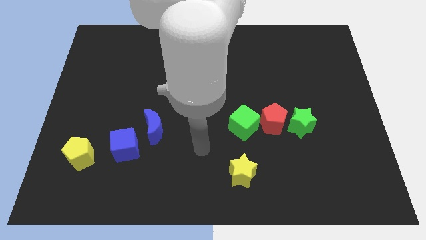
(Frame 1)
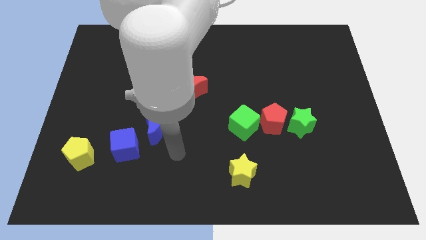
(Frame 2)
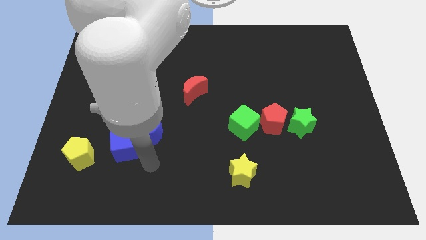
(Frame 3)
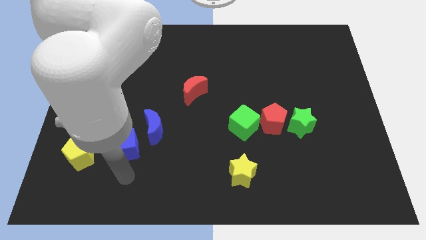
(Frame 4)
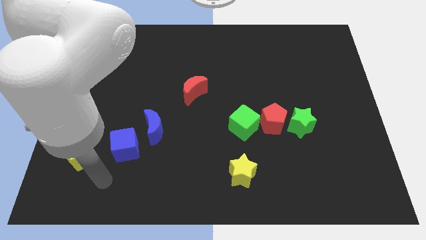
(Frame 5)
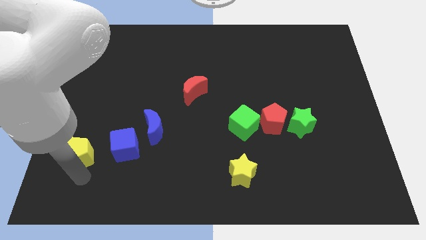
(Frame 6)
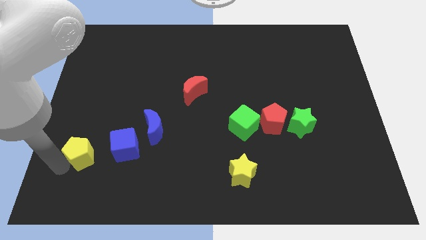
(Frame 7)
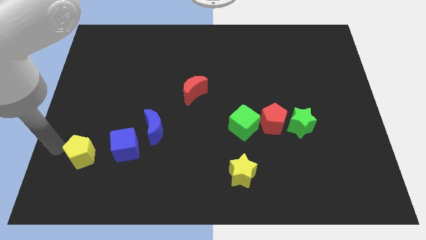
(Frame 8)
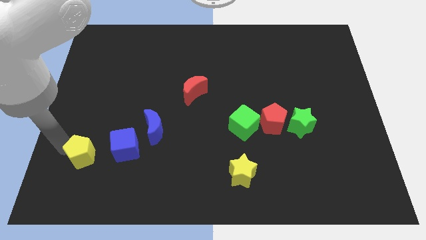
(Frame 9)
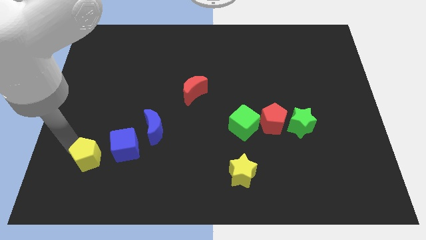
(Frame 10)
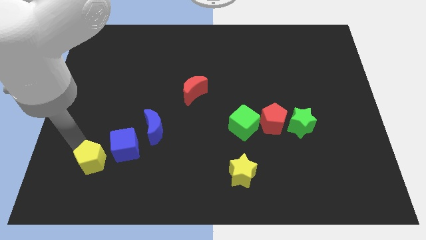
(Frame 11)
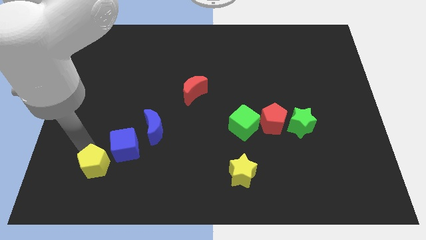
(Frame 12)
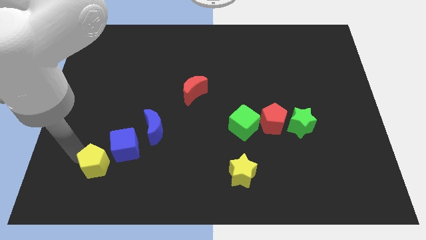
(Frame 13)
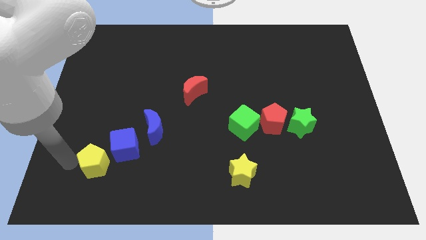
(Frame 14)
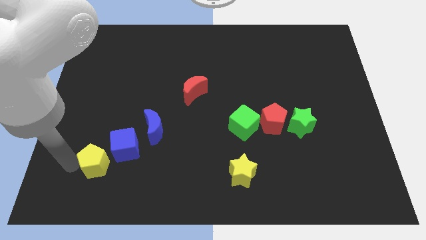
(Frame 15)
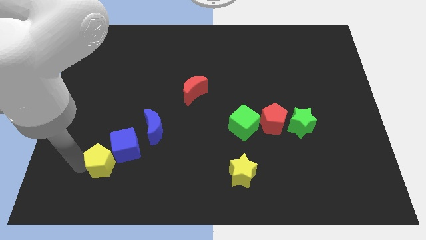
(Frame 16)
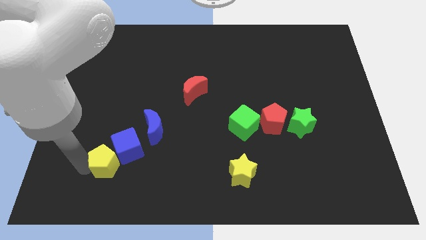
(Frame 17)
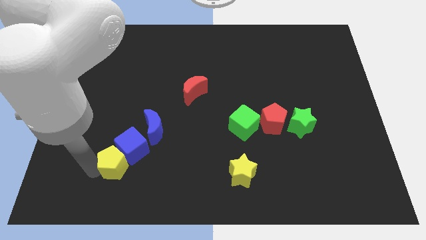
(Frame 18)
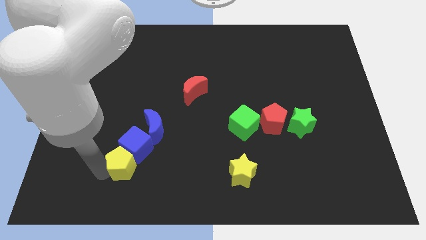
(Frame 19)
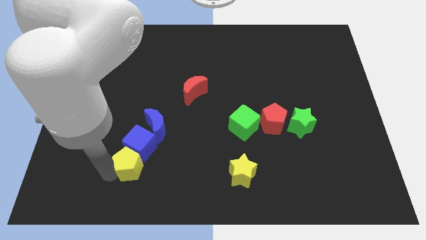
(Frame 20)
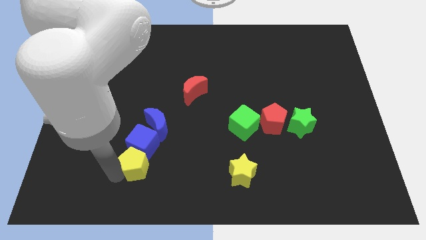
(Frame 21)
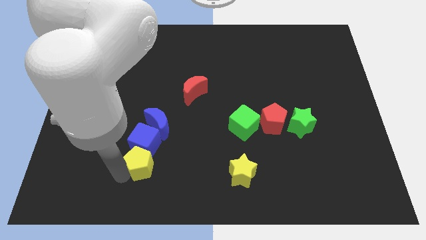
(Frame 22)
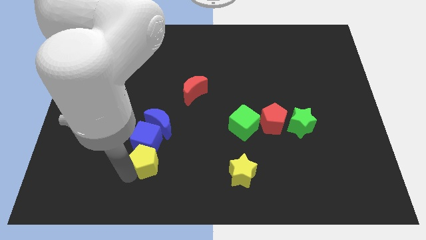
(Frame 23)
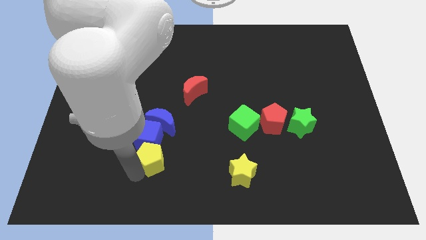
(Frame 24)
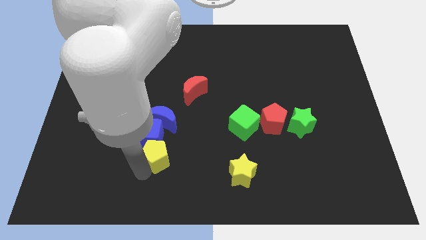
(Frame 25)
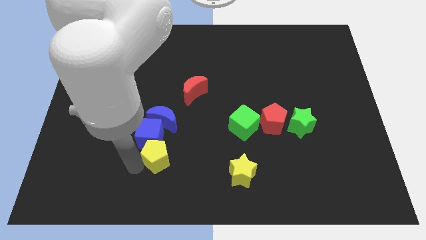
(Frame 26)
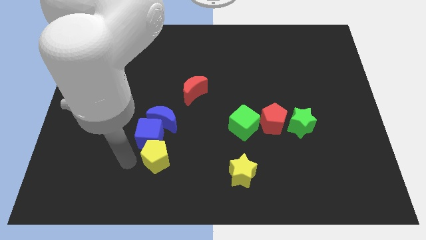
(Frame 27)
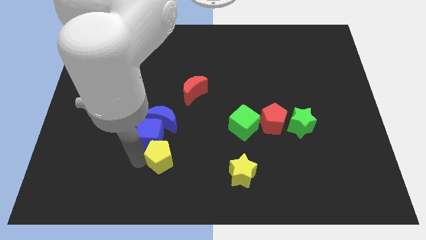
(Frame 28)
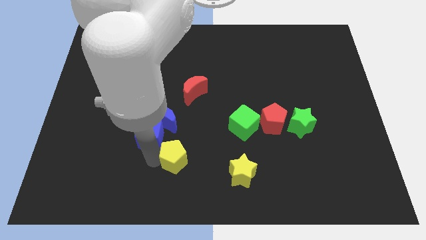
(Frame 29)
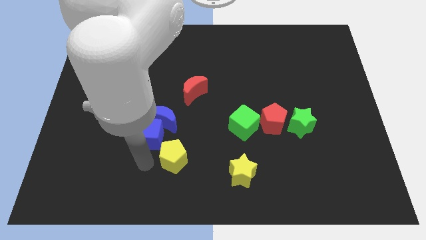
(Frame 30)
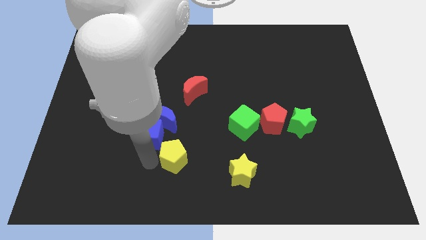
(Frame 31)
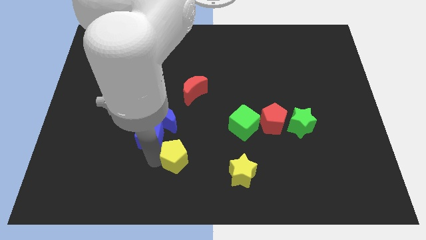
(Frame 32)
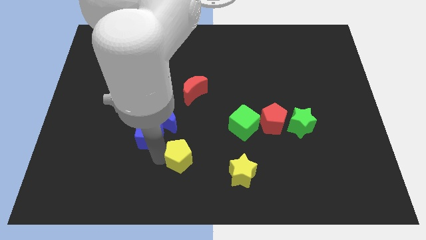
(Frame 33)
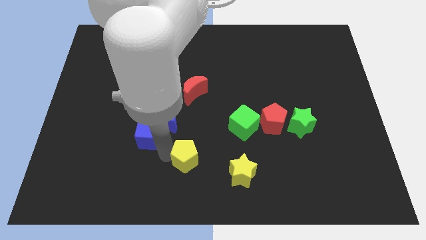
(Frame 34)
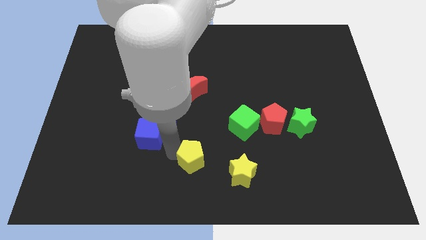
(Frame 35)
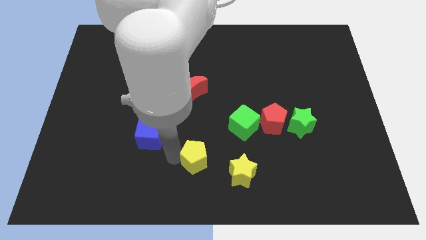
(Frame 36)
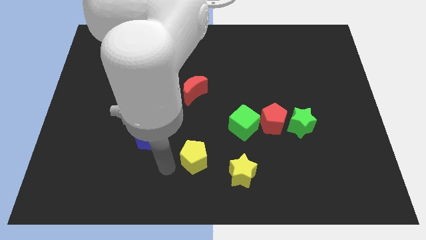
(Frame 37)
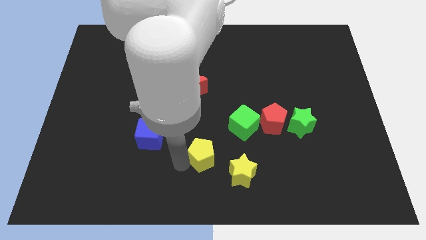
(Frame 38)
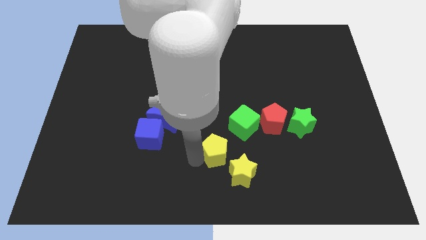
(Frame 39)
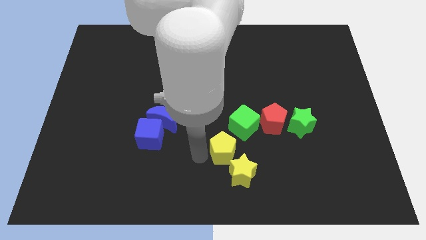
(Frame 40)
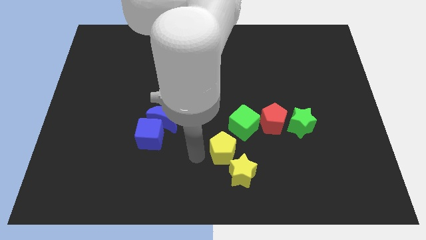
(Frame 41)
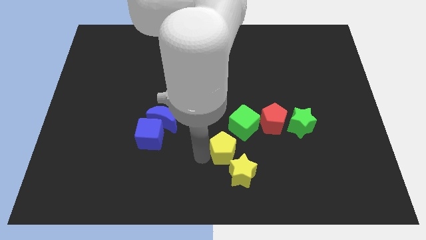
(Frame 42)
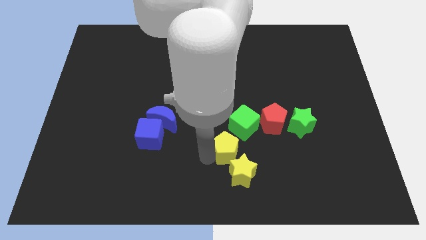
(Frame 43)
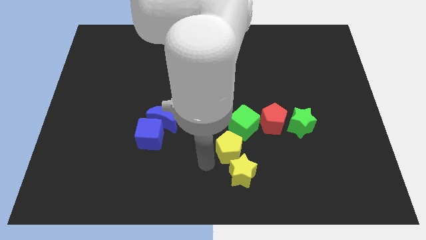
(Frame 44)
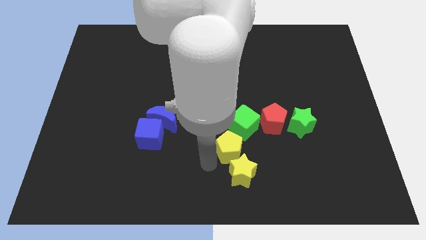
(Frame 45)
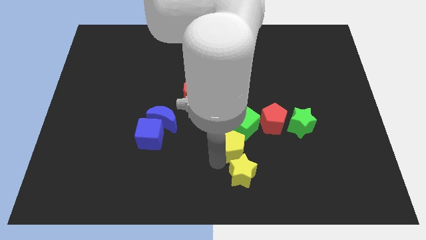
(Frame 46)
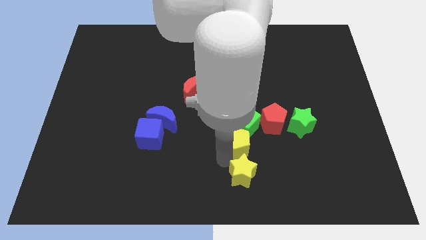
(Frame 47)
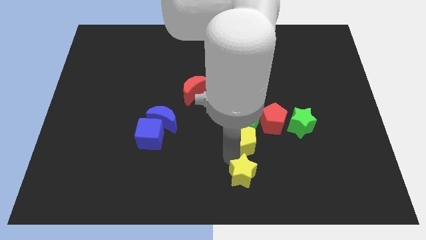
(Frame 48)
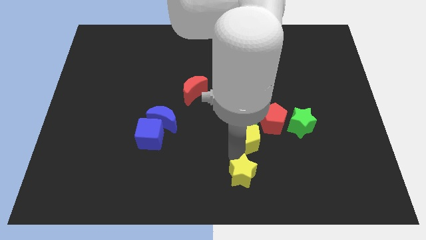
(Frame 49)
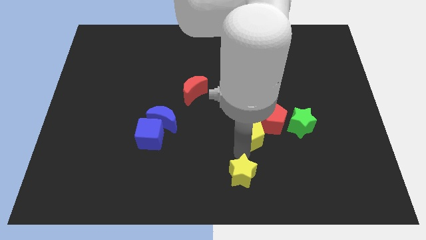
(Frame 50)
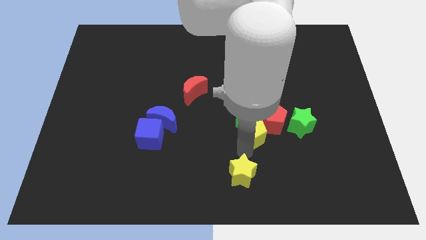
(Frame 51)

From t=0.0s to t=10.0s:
put the yellow pentagon next to the red pentagon

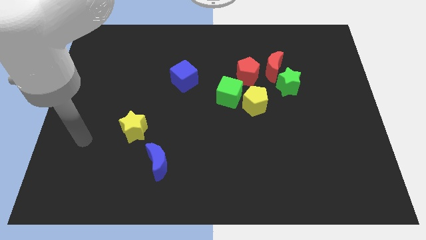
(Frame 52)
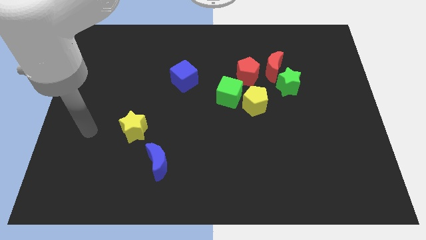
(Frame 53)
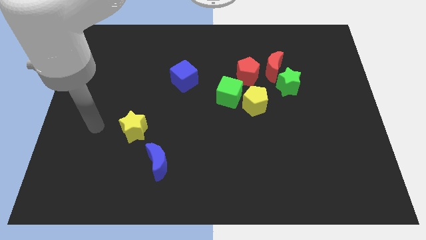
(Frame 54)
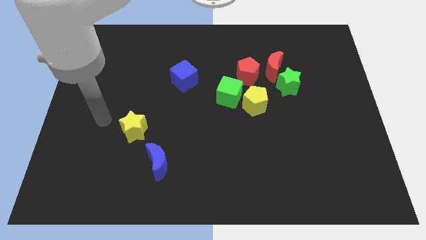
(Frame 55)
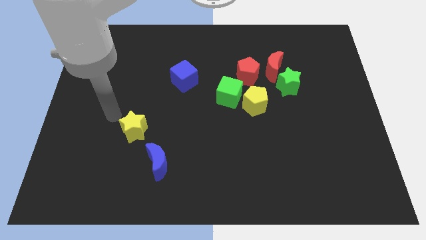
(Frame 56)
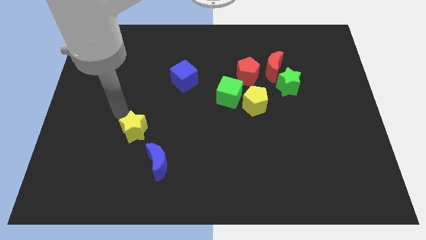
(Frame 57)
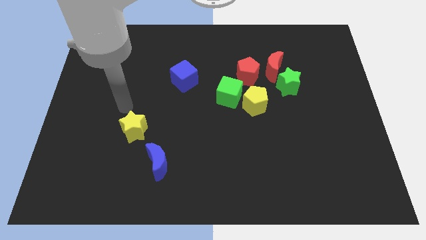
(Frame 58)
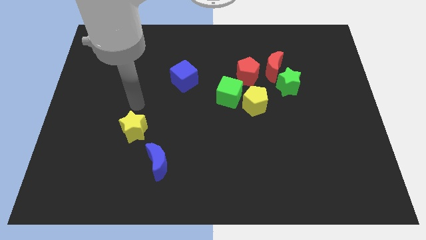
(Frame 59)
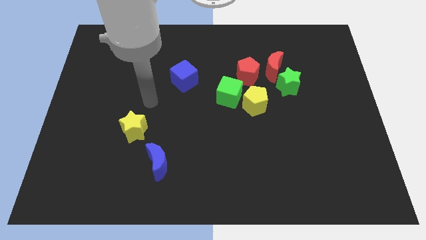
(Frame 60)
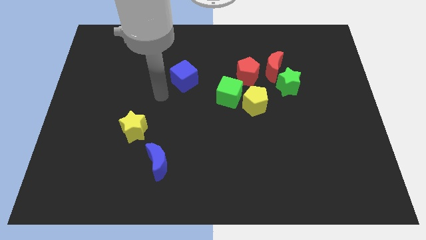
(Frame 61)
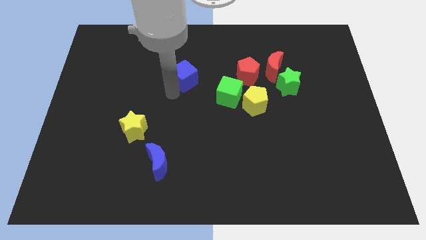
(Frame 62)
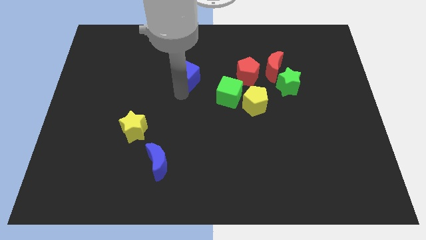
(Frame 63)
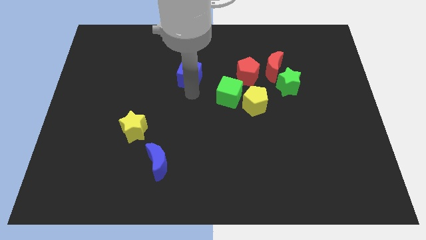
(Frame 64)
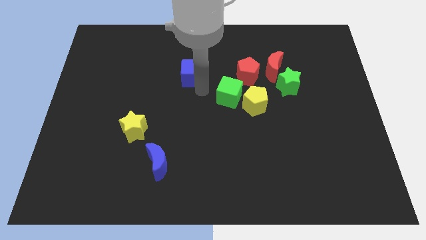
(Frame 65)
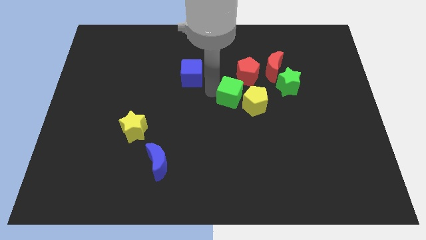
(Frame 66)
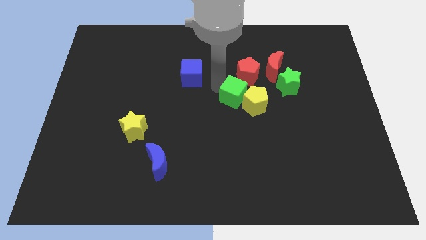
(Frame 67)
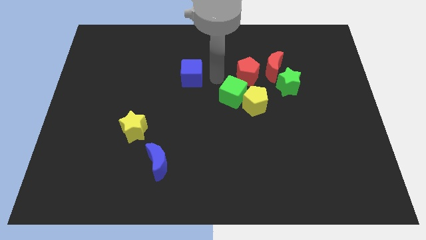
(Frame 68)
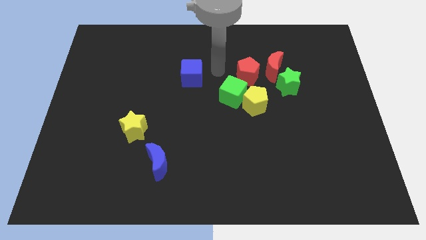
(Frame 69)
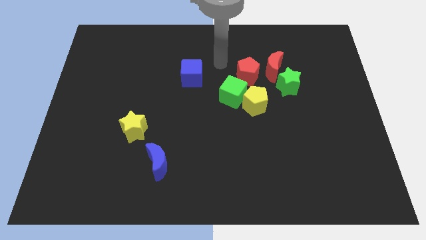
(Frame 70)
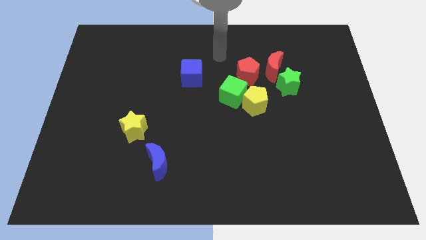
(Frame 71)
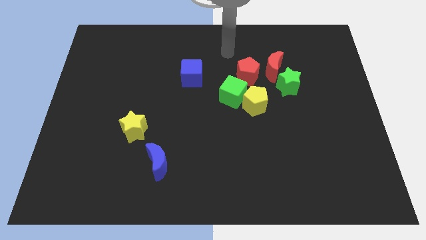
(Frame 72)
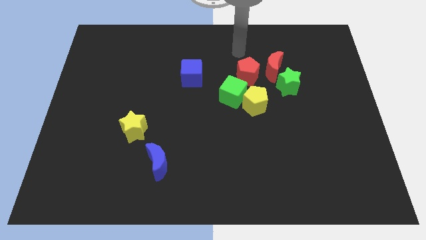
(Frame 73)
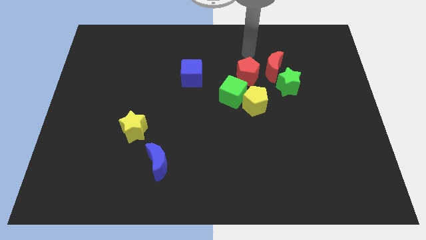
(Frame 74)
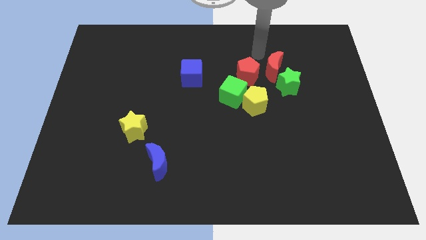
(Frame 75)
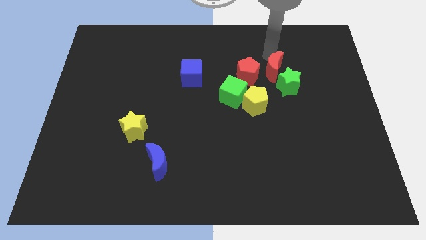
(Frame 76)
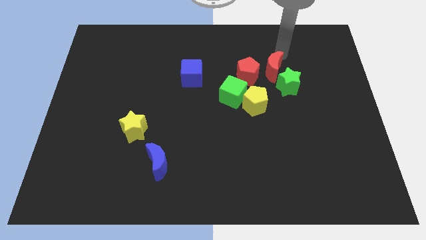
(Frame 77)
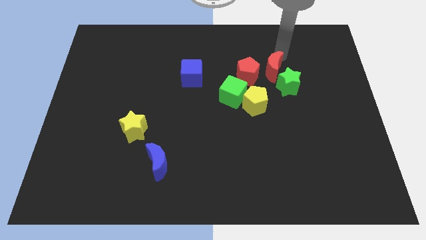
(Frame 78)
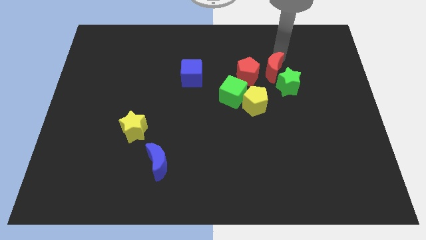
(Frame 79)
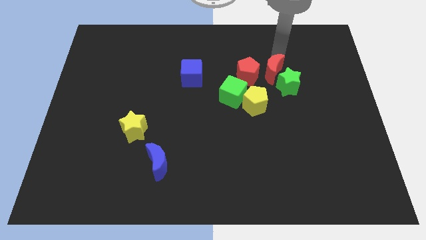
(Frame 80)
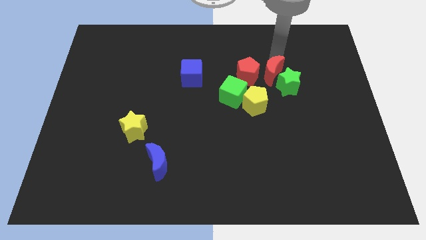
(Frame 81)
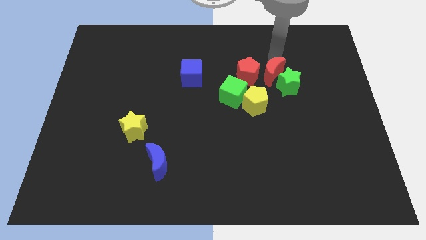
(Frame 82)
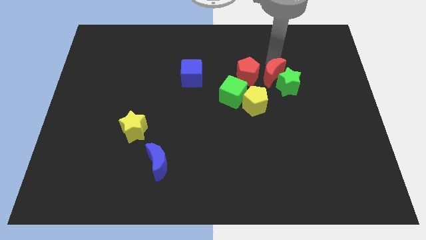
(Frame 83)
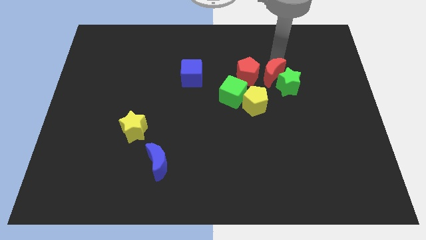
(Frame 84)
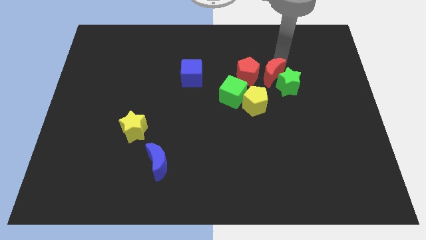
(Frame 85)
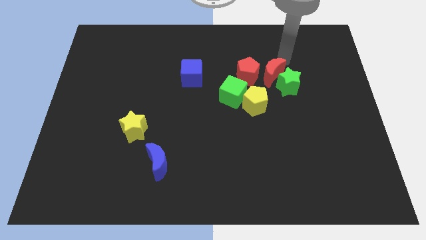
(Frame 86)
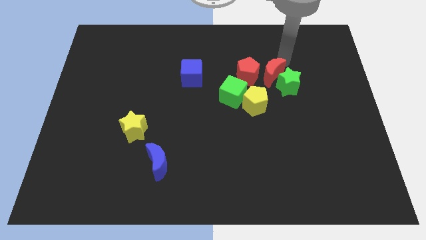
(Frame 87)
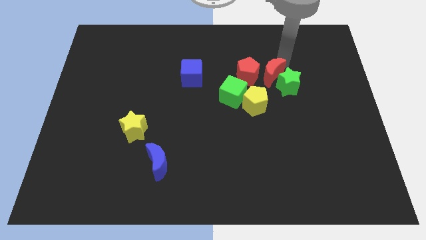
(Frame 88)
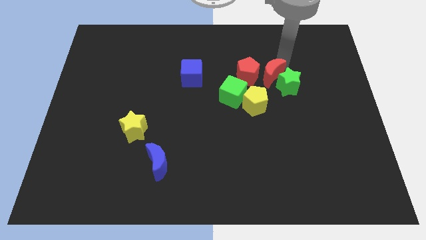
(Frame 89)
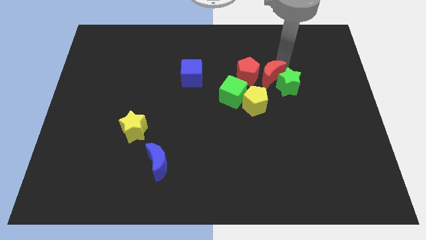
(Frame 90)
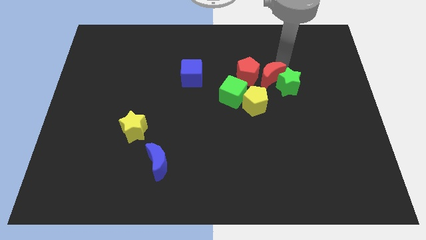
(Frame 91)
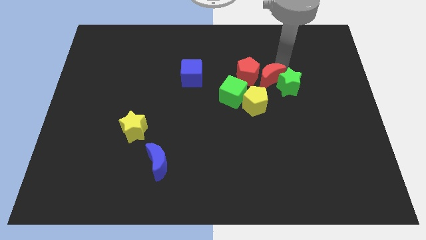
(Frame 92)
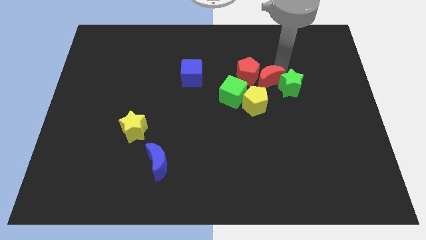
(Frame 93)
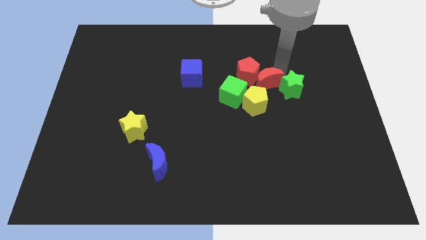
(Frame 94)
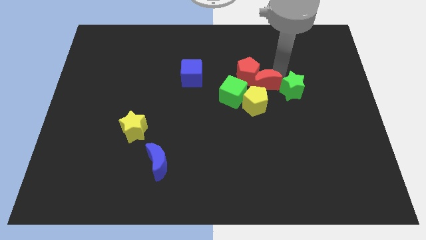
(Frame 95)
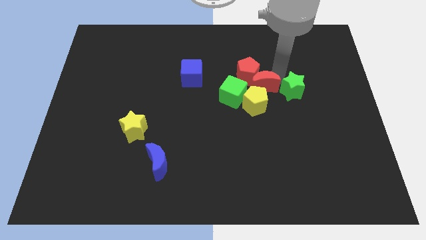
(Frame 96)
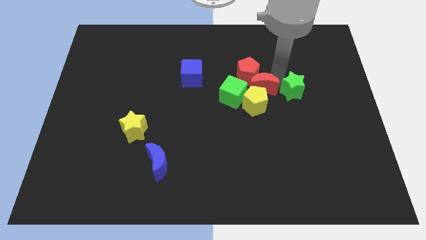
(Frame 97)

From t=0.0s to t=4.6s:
push the red moon towards the yellow pentagon
